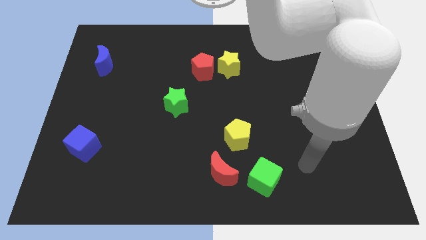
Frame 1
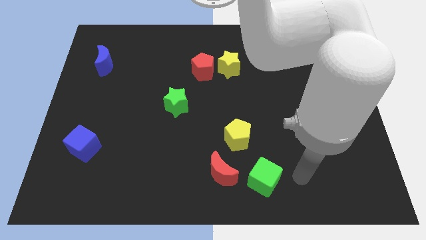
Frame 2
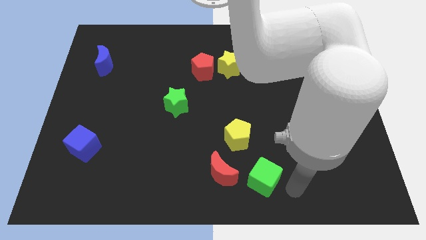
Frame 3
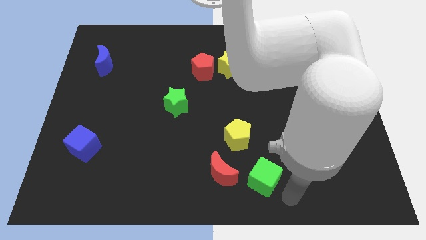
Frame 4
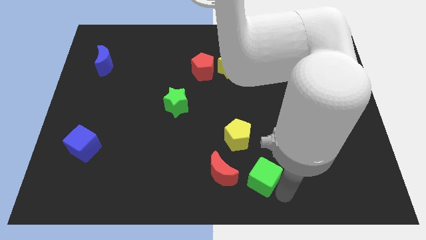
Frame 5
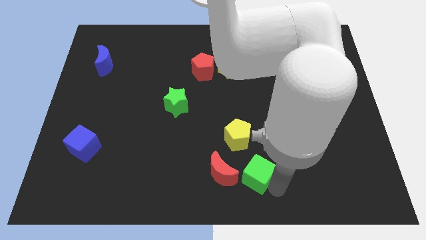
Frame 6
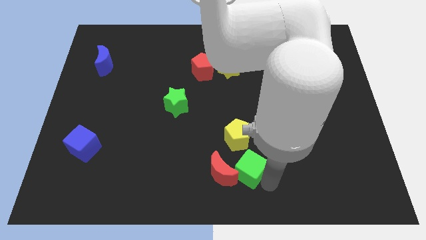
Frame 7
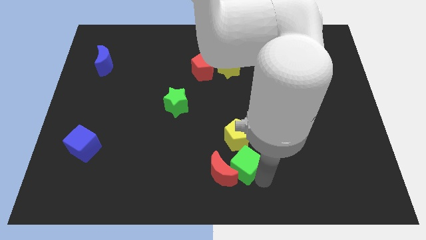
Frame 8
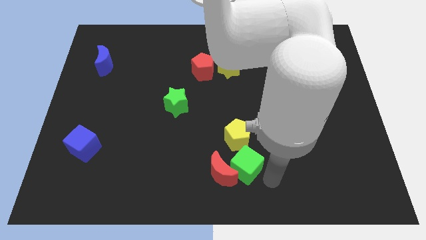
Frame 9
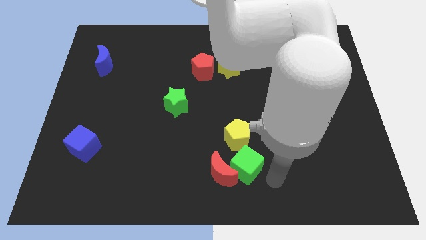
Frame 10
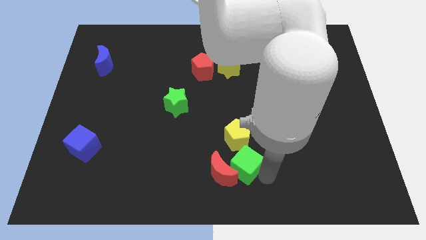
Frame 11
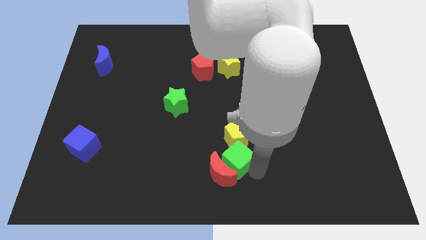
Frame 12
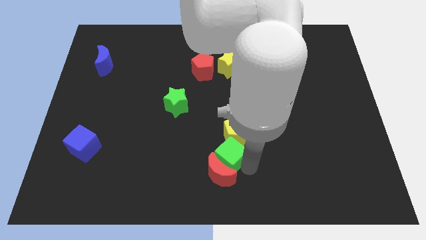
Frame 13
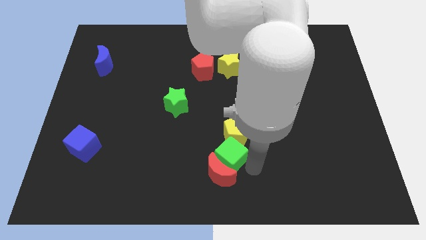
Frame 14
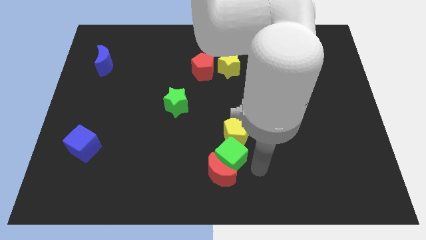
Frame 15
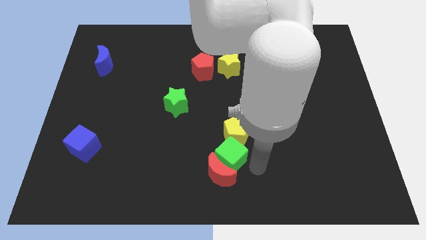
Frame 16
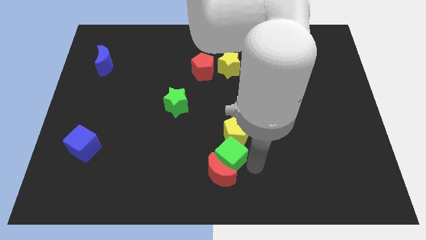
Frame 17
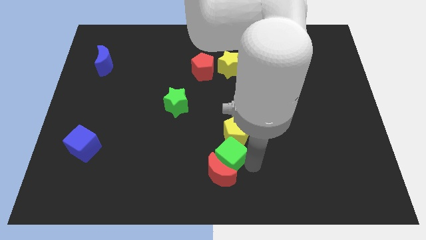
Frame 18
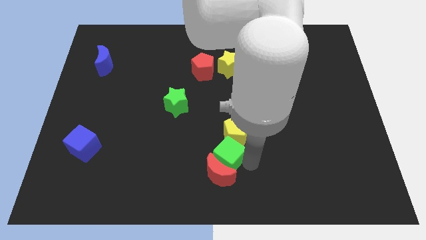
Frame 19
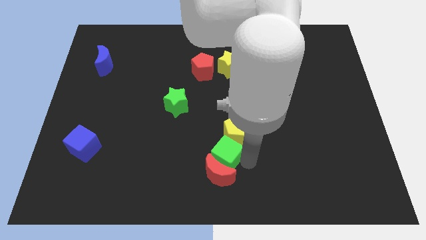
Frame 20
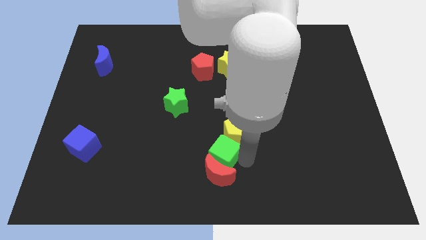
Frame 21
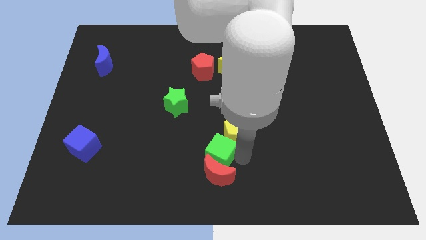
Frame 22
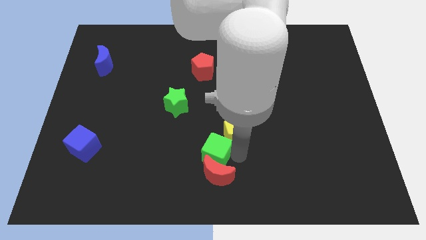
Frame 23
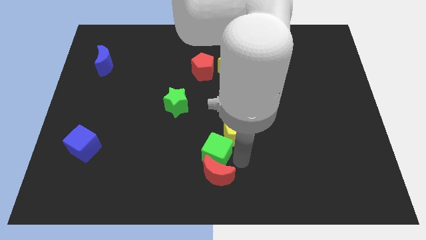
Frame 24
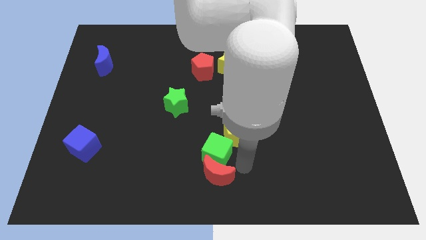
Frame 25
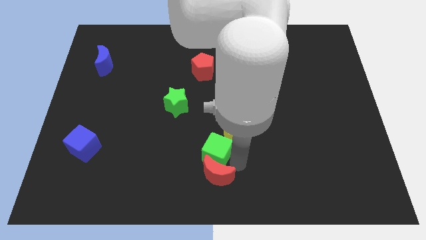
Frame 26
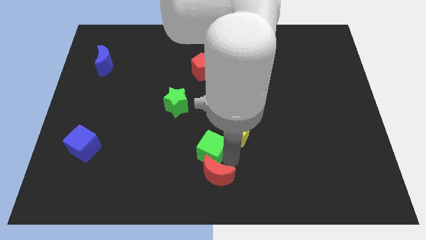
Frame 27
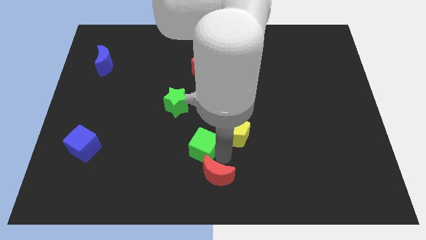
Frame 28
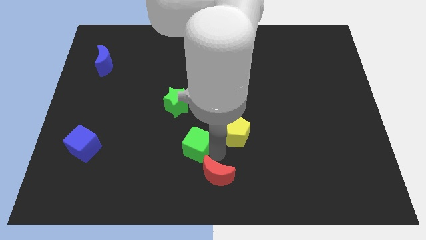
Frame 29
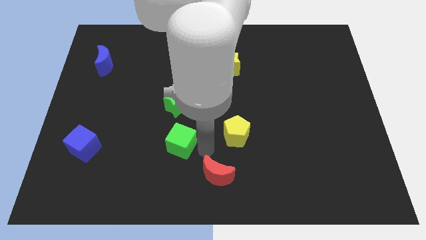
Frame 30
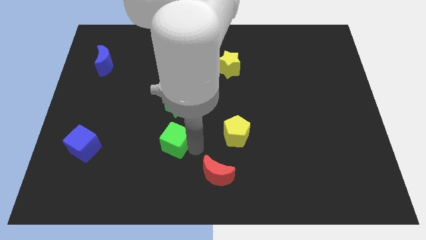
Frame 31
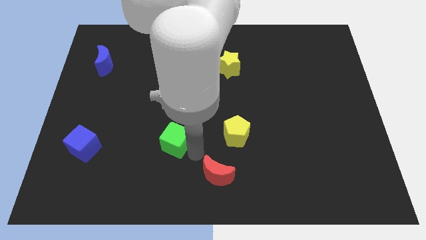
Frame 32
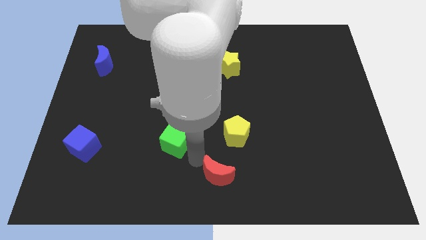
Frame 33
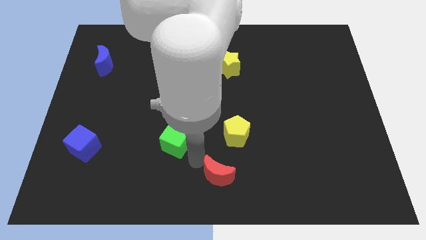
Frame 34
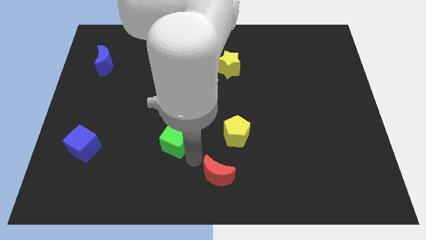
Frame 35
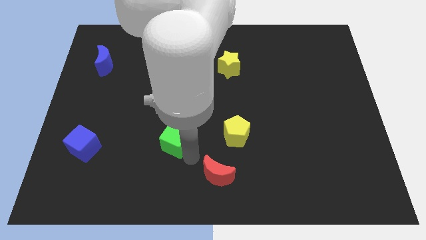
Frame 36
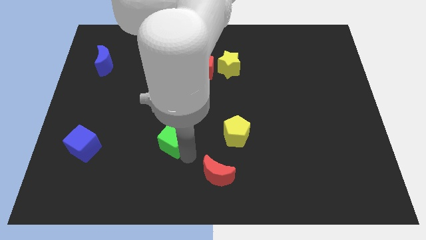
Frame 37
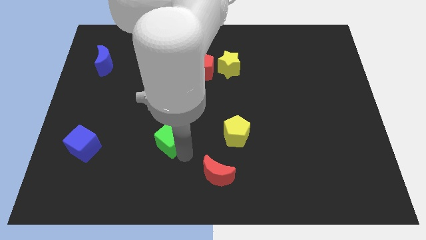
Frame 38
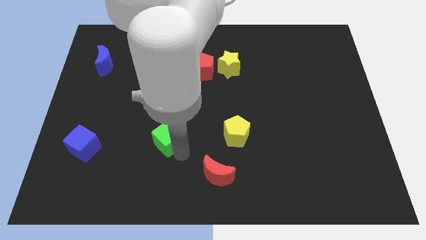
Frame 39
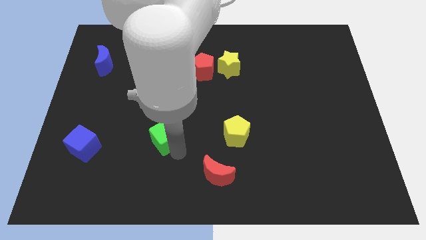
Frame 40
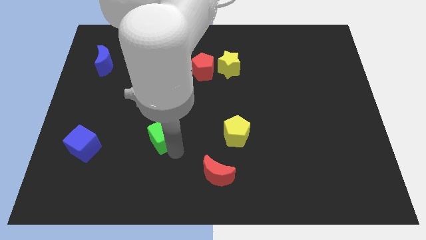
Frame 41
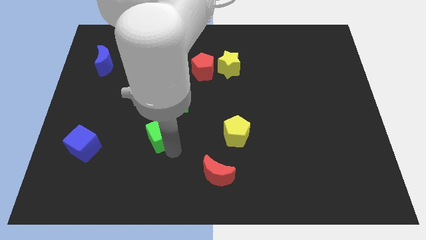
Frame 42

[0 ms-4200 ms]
push the green cube diagonally upwards and left

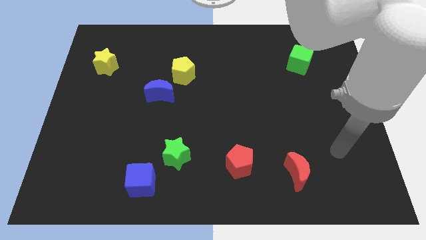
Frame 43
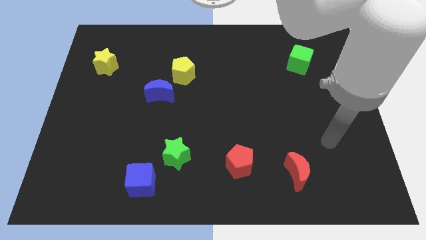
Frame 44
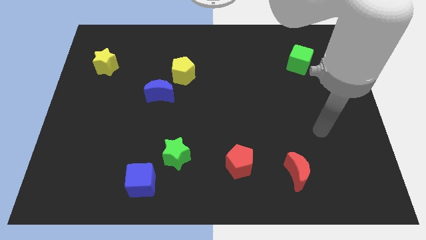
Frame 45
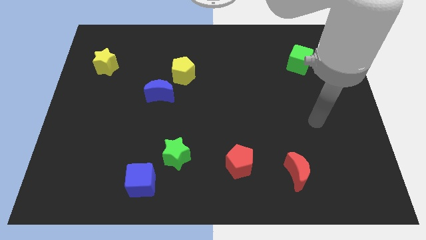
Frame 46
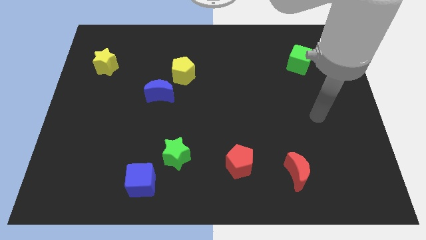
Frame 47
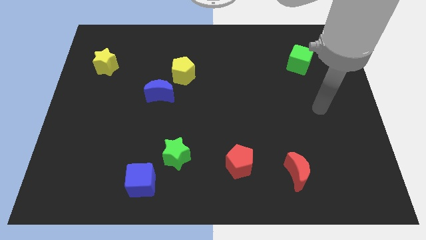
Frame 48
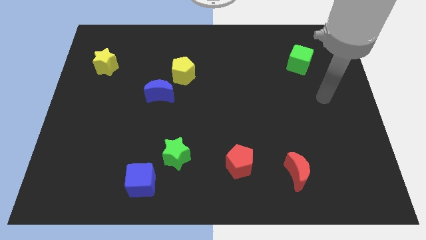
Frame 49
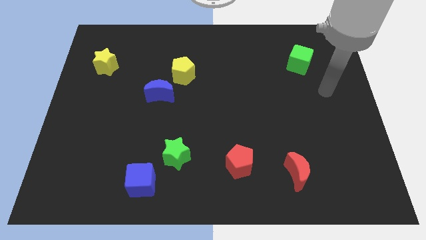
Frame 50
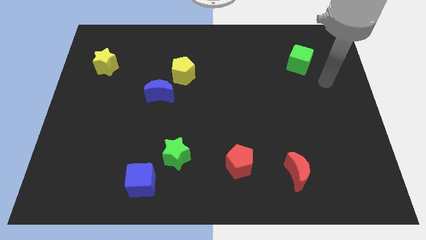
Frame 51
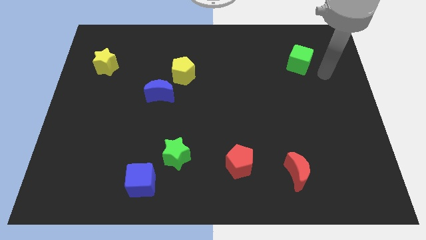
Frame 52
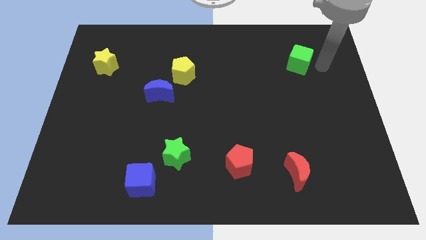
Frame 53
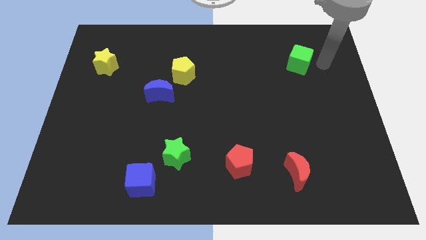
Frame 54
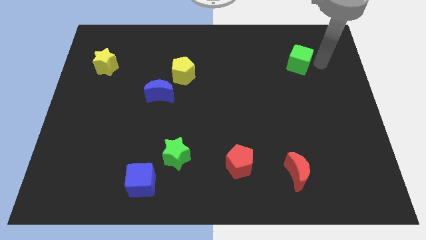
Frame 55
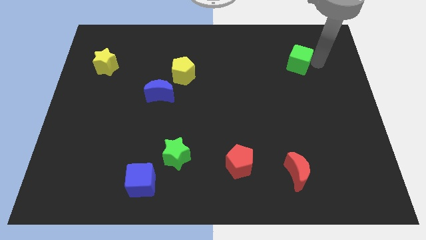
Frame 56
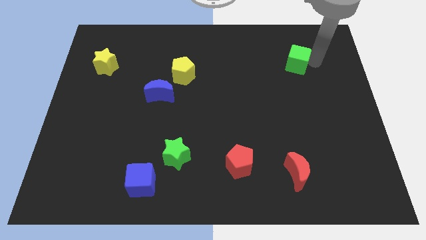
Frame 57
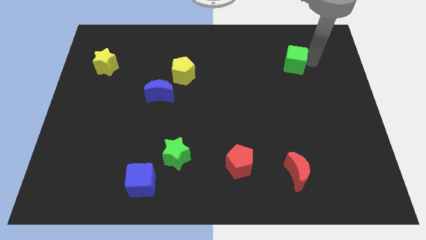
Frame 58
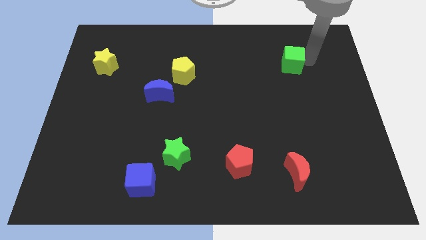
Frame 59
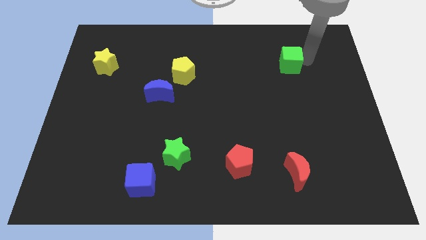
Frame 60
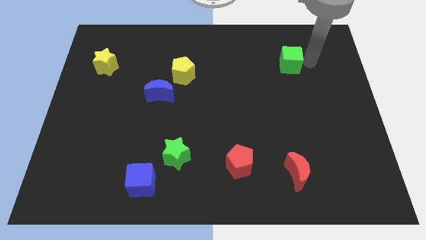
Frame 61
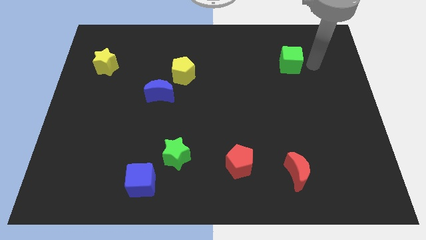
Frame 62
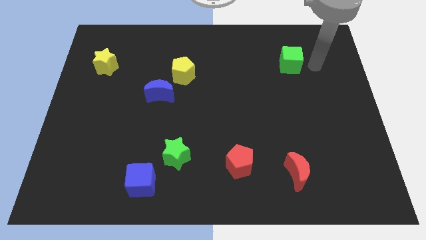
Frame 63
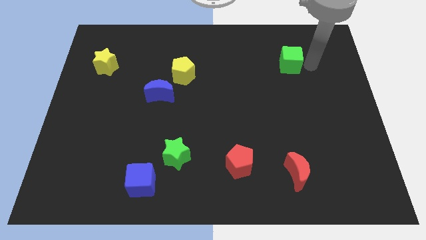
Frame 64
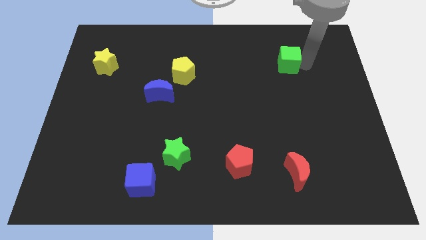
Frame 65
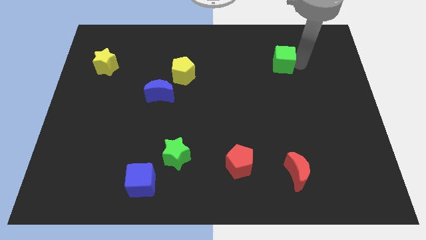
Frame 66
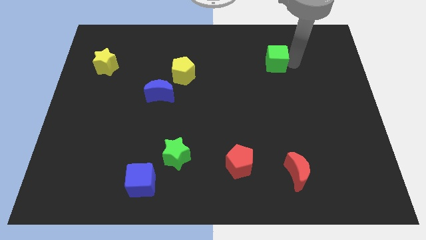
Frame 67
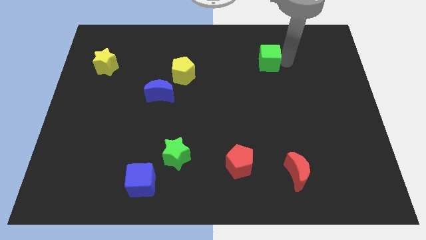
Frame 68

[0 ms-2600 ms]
move the green cube left a bit

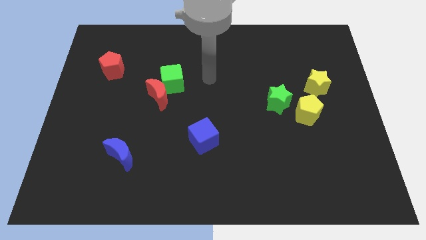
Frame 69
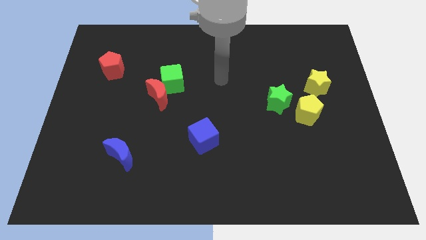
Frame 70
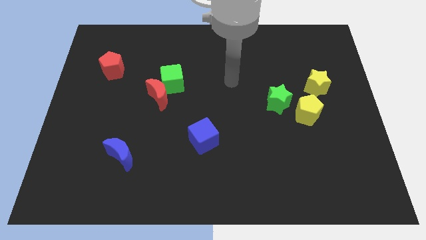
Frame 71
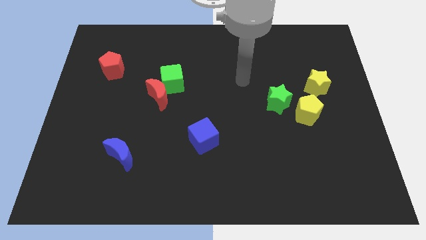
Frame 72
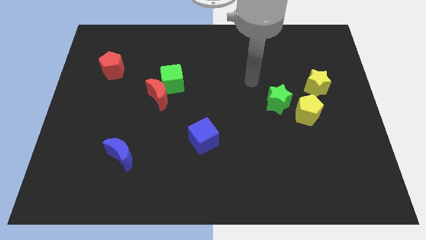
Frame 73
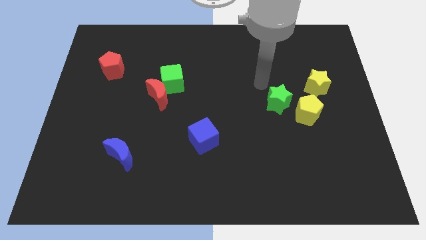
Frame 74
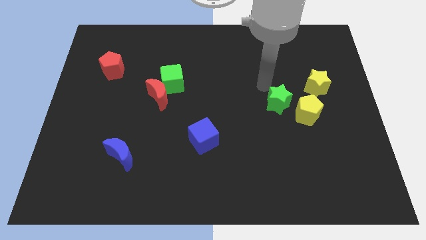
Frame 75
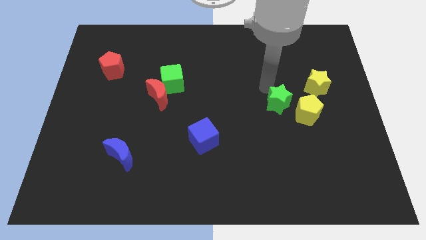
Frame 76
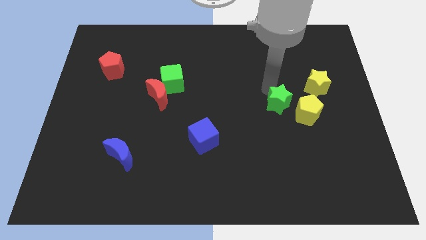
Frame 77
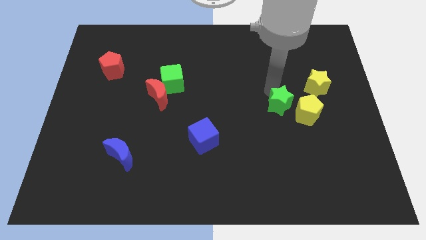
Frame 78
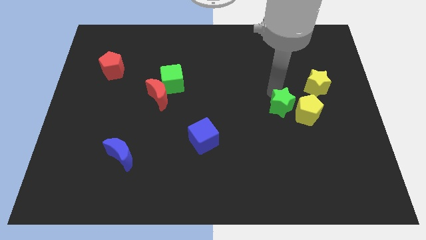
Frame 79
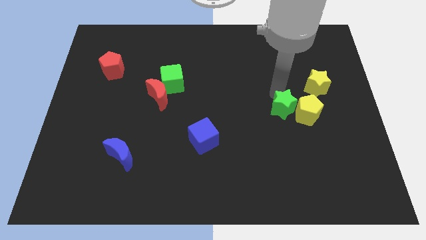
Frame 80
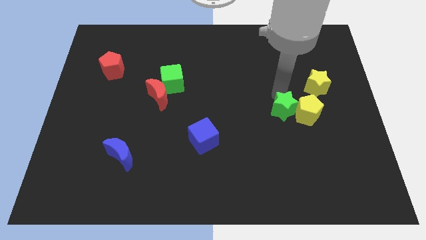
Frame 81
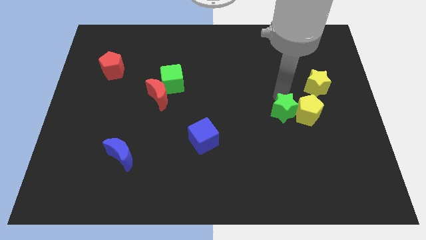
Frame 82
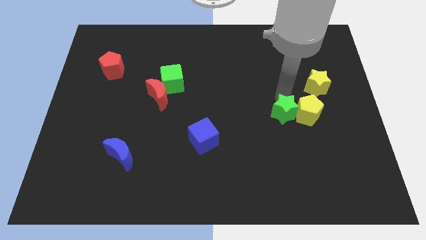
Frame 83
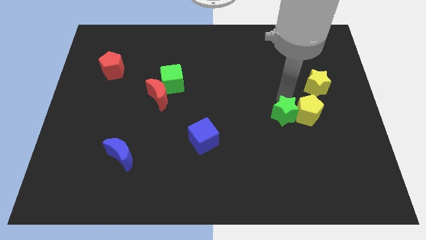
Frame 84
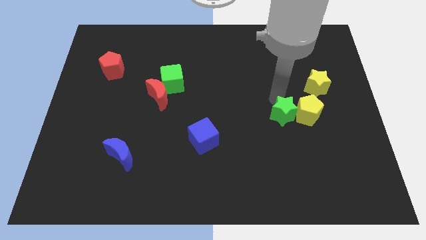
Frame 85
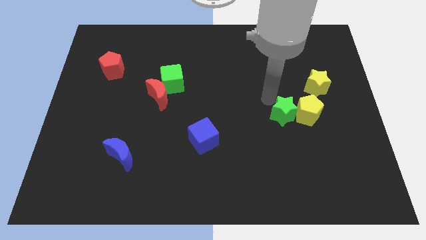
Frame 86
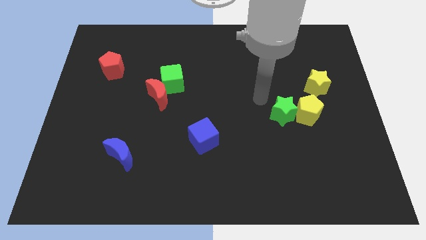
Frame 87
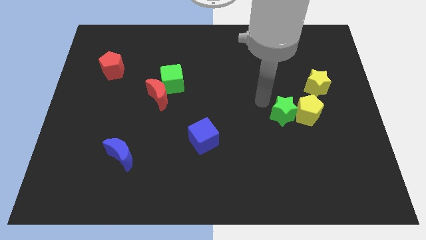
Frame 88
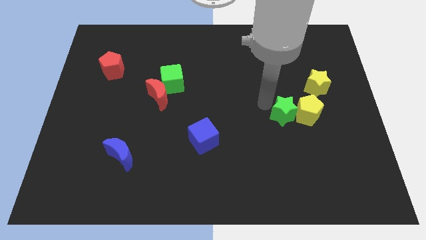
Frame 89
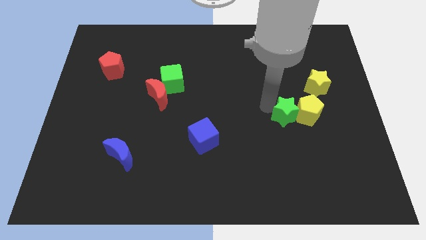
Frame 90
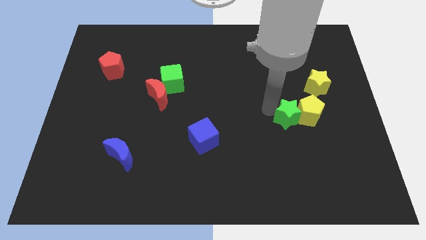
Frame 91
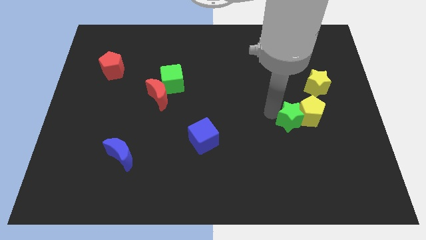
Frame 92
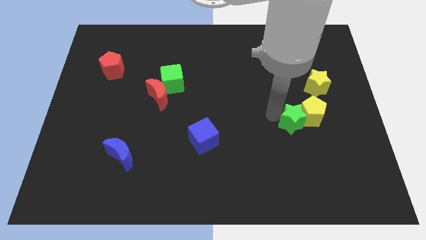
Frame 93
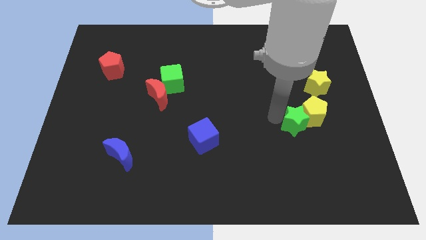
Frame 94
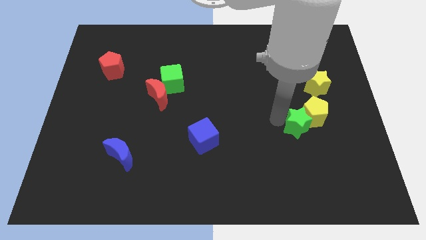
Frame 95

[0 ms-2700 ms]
move the green star a bit diagonally downwards and right
